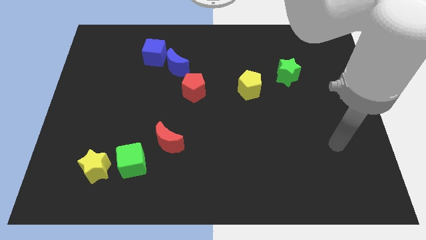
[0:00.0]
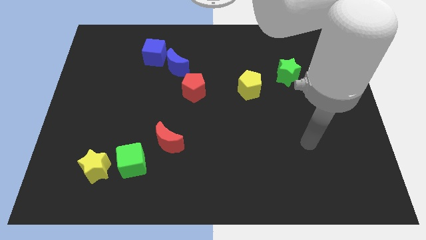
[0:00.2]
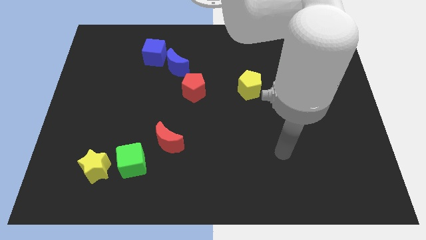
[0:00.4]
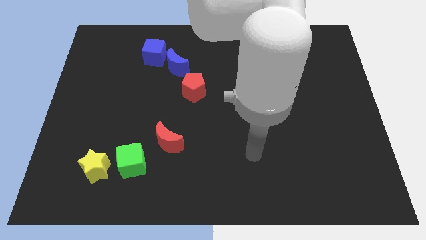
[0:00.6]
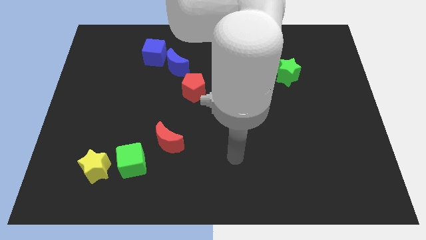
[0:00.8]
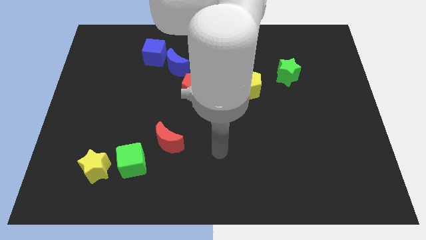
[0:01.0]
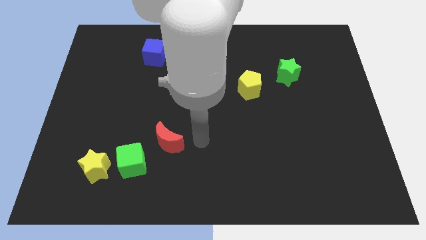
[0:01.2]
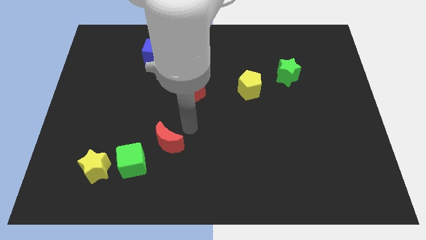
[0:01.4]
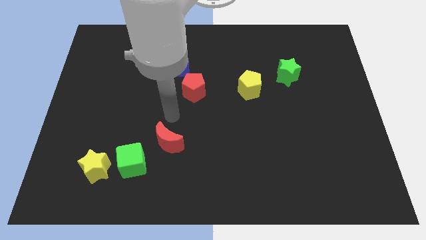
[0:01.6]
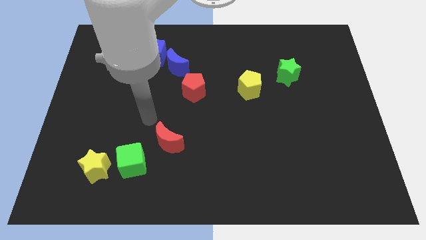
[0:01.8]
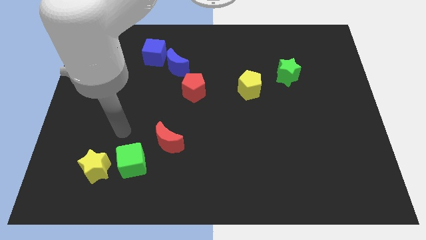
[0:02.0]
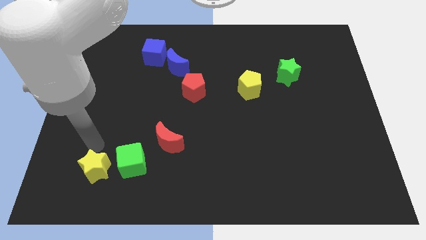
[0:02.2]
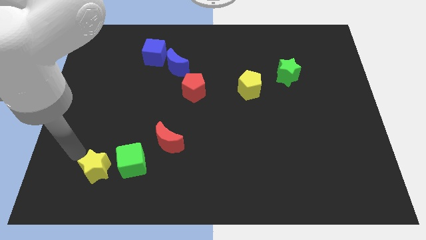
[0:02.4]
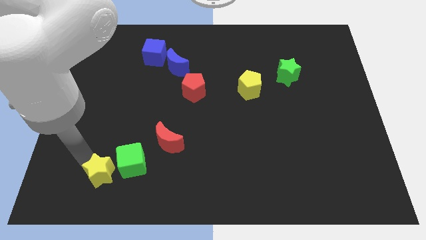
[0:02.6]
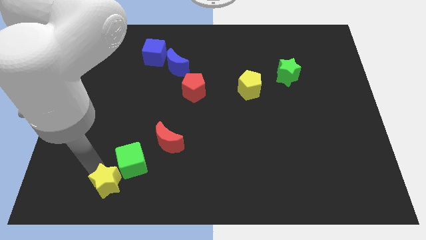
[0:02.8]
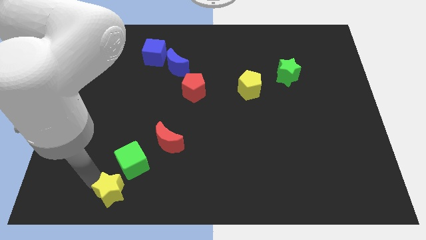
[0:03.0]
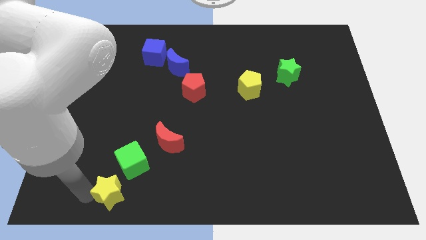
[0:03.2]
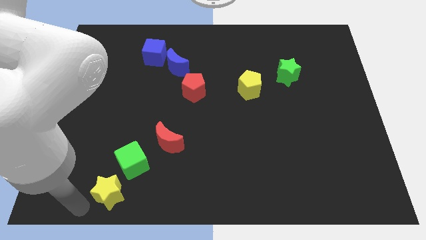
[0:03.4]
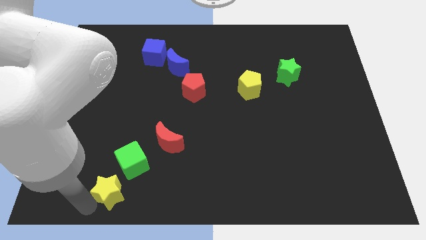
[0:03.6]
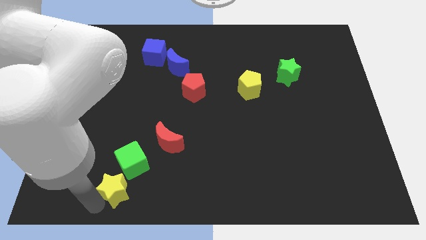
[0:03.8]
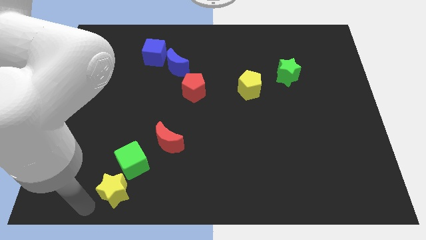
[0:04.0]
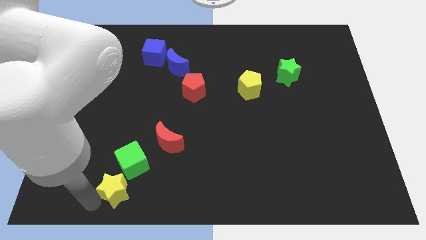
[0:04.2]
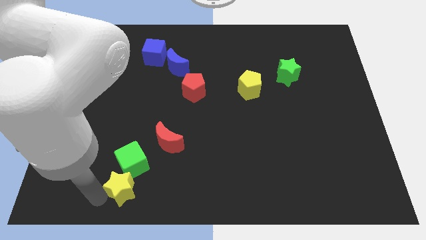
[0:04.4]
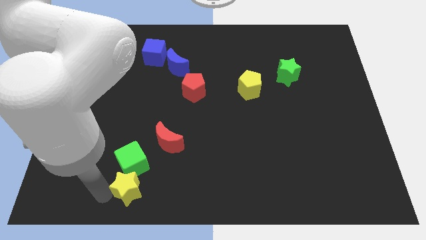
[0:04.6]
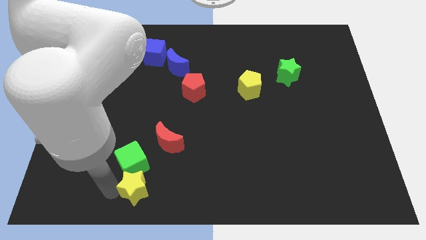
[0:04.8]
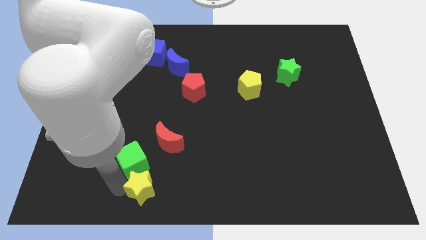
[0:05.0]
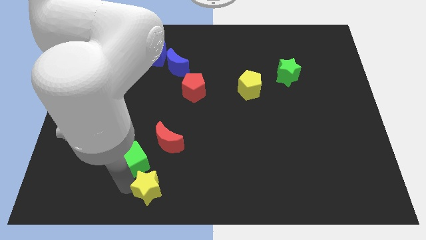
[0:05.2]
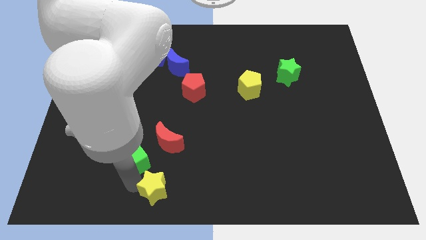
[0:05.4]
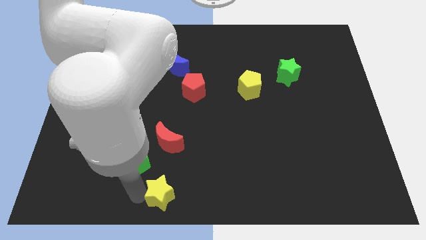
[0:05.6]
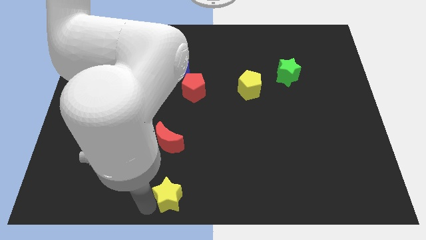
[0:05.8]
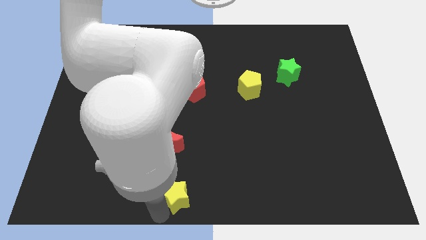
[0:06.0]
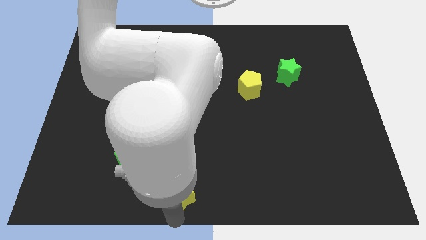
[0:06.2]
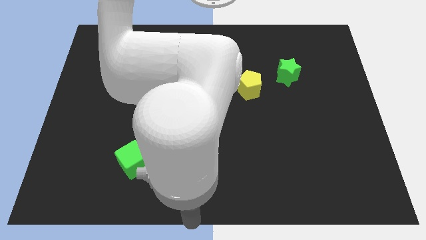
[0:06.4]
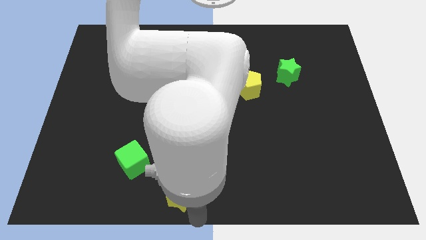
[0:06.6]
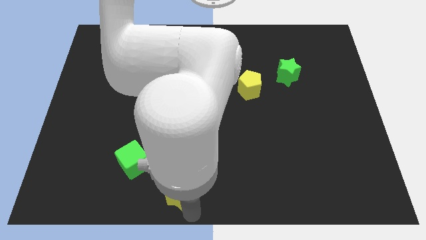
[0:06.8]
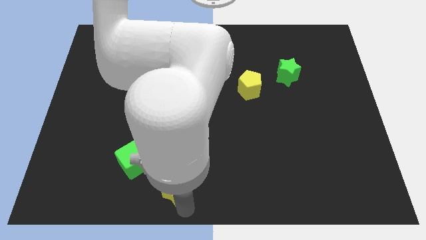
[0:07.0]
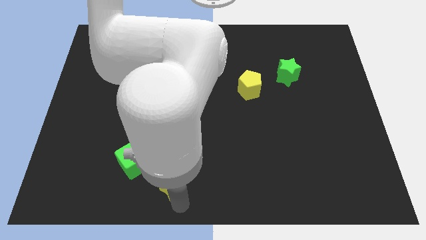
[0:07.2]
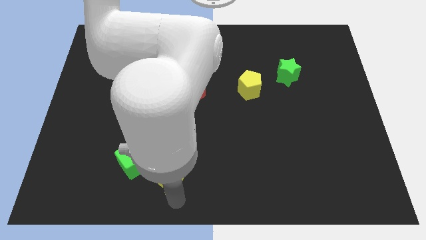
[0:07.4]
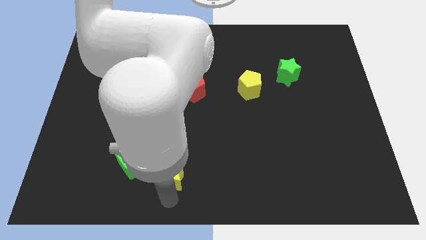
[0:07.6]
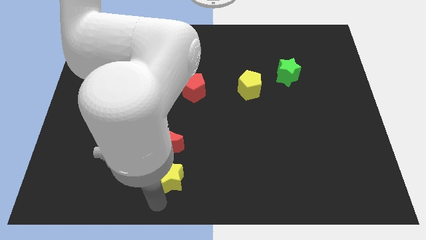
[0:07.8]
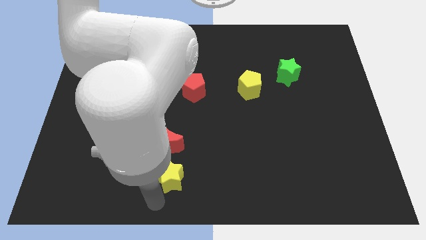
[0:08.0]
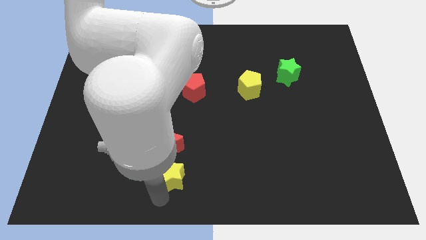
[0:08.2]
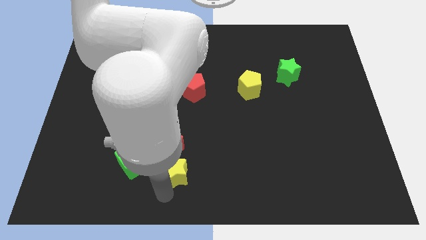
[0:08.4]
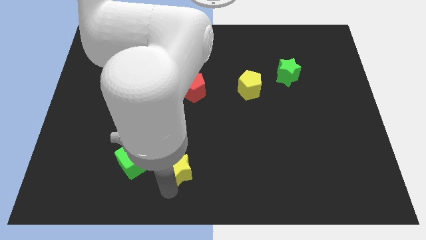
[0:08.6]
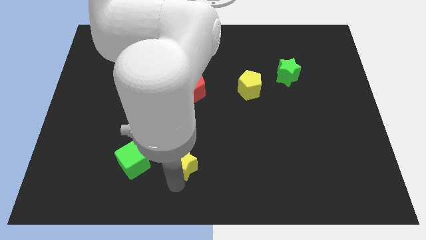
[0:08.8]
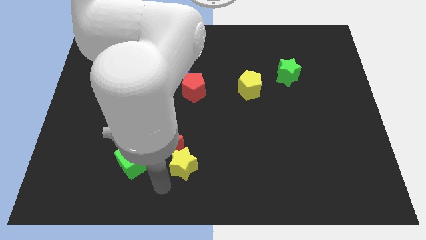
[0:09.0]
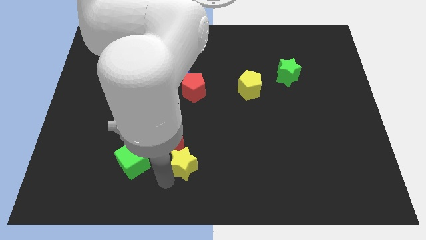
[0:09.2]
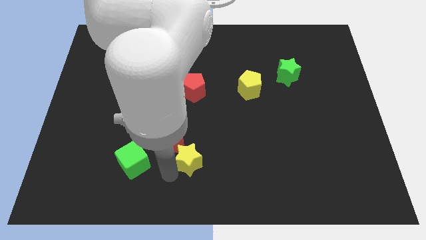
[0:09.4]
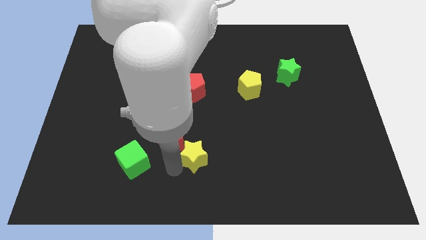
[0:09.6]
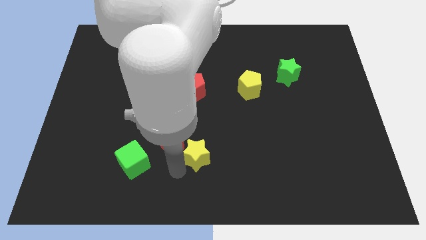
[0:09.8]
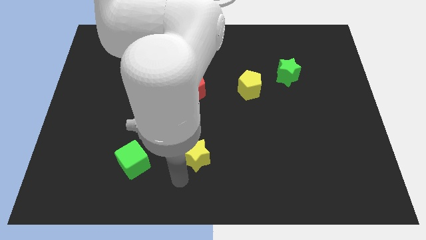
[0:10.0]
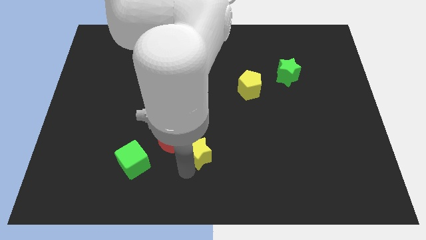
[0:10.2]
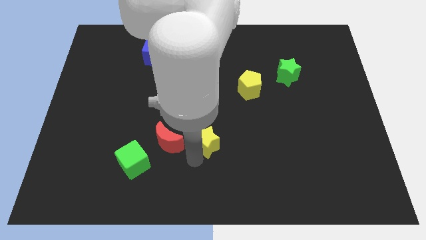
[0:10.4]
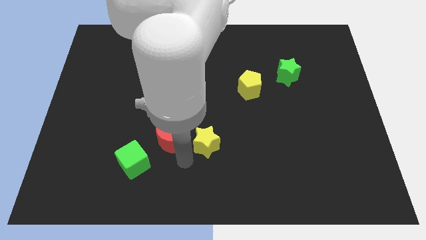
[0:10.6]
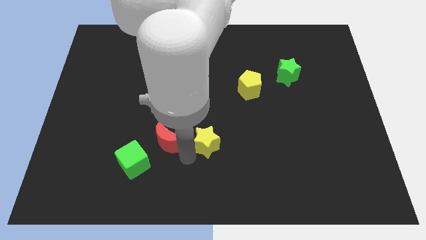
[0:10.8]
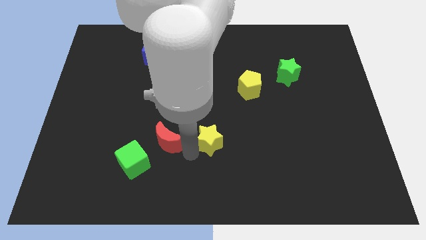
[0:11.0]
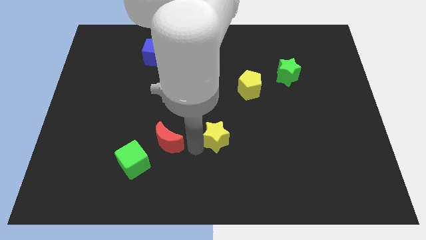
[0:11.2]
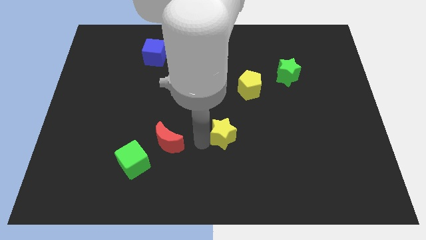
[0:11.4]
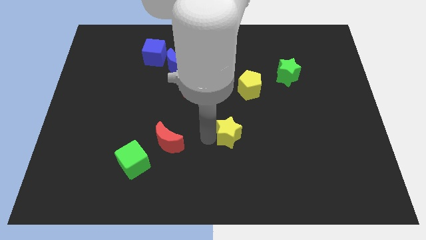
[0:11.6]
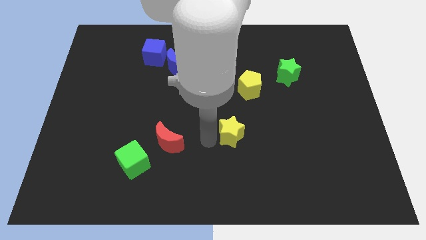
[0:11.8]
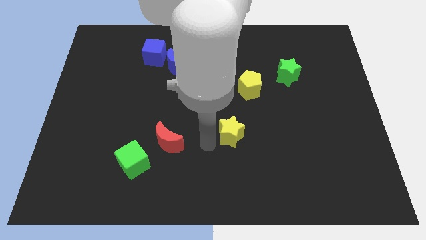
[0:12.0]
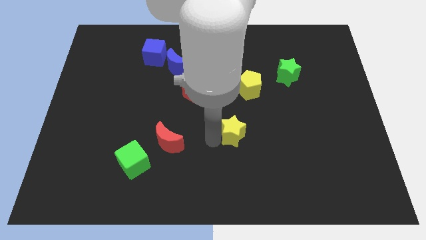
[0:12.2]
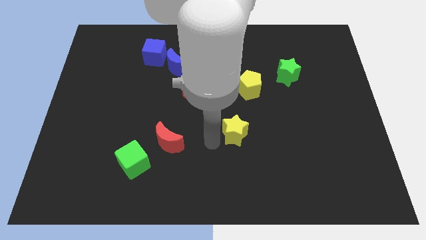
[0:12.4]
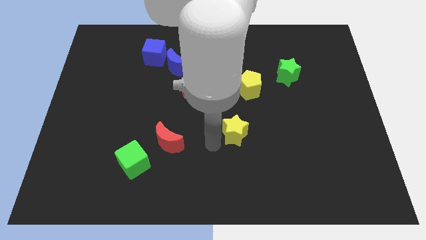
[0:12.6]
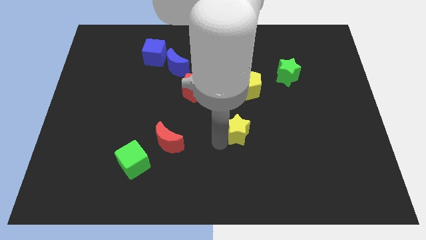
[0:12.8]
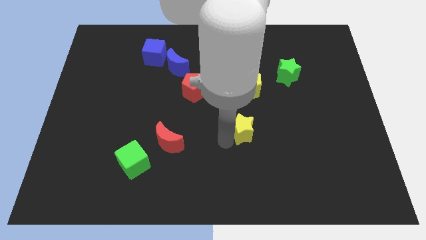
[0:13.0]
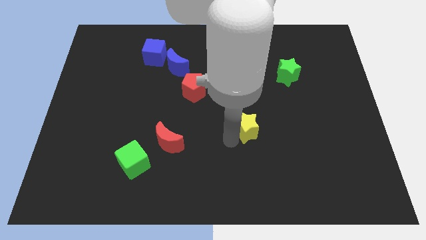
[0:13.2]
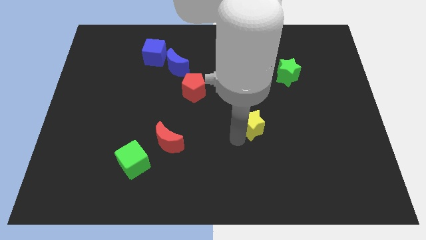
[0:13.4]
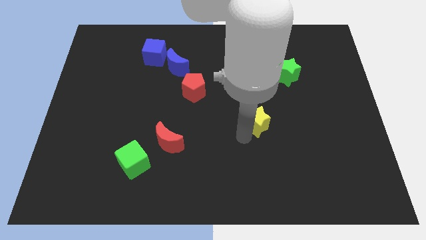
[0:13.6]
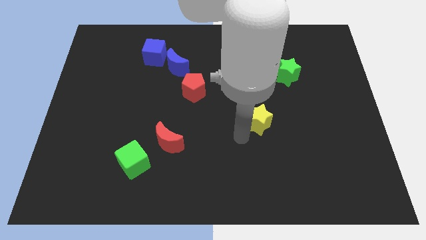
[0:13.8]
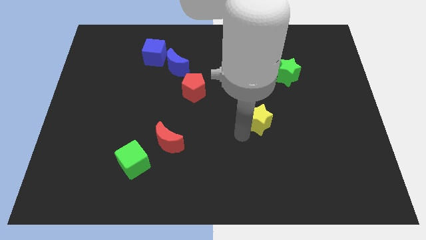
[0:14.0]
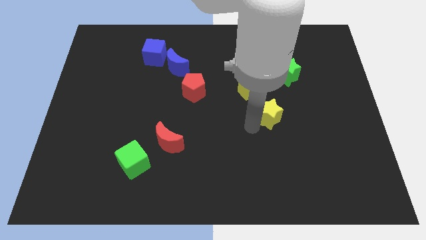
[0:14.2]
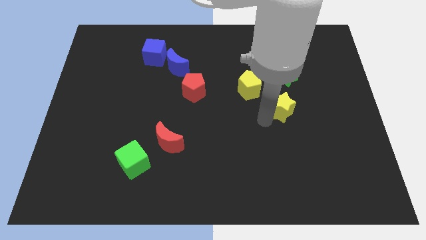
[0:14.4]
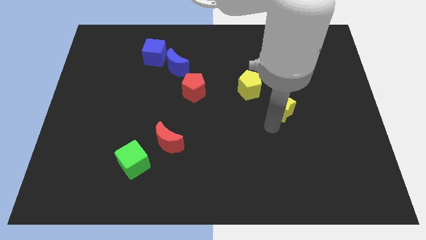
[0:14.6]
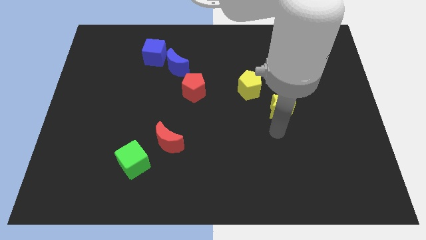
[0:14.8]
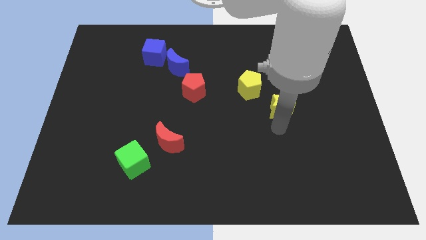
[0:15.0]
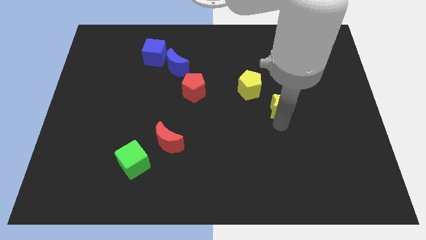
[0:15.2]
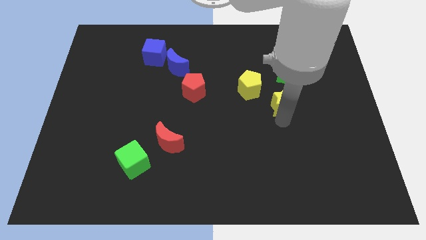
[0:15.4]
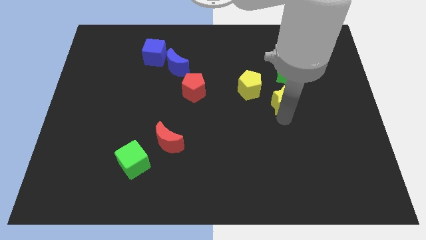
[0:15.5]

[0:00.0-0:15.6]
move the yellow star right of the yellow pentagon

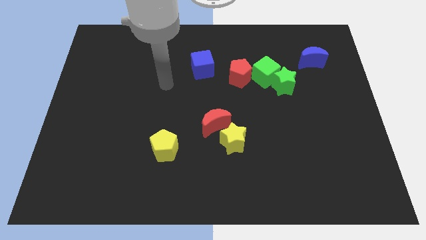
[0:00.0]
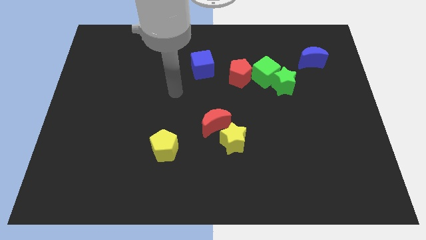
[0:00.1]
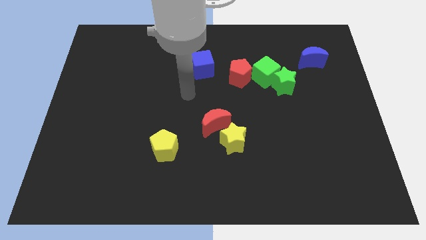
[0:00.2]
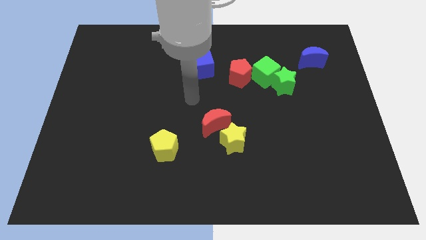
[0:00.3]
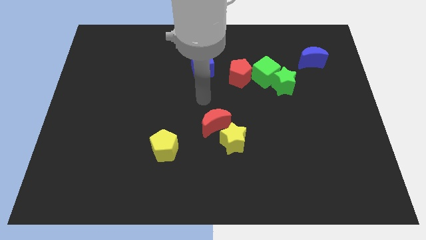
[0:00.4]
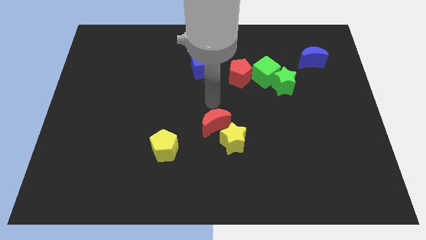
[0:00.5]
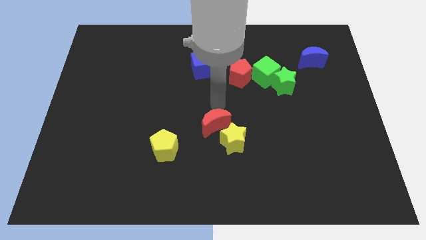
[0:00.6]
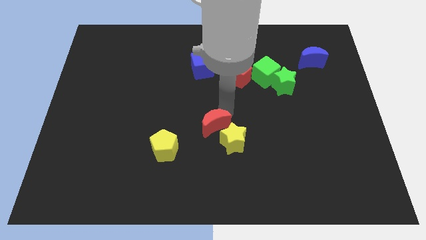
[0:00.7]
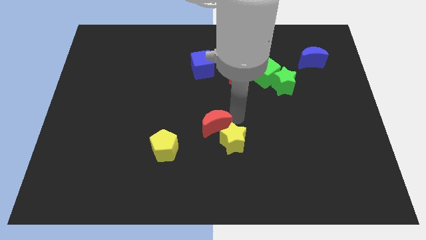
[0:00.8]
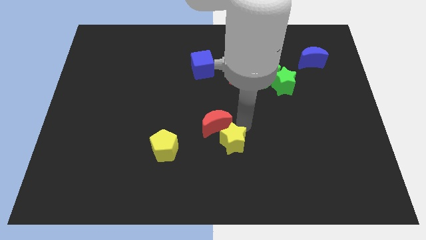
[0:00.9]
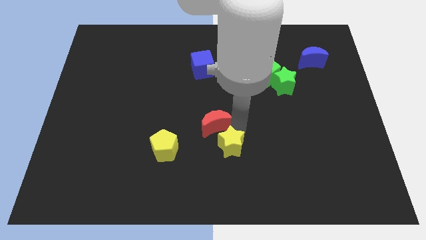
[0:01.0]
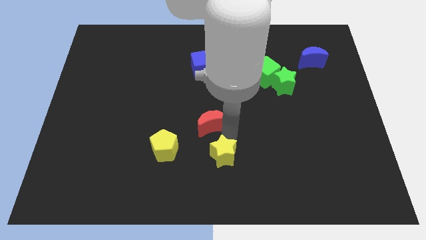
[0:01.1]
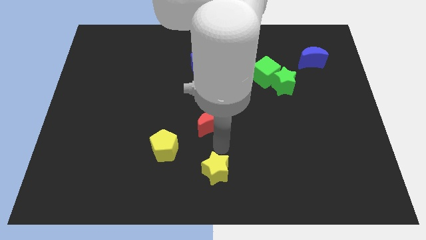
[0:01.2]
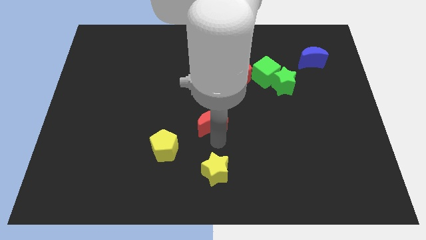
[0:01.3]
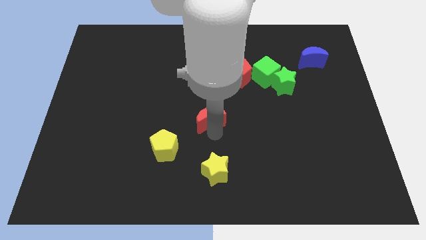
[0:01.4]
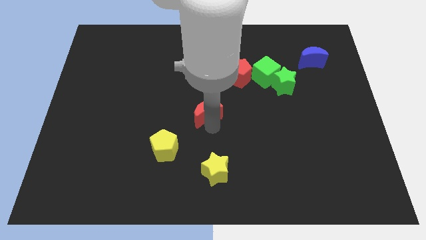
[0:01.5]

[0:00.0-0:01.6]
slide the red moon to the bottom of the blue cube
